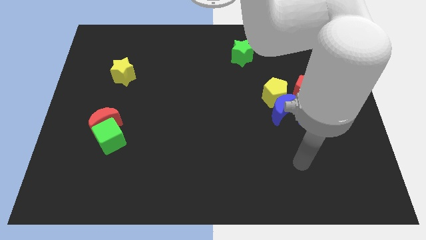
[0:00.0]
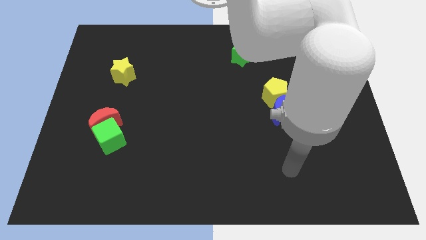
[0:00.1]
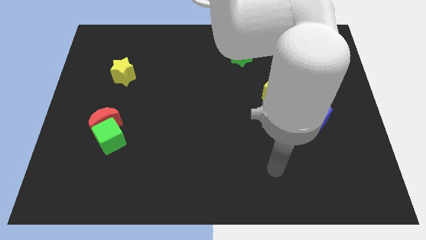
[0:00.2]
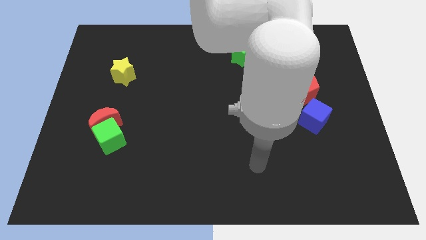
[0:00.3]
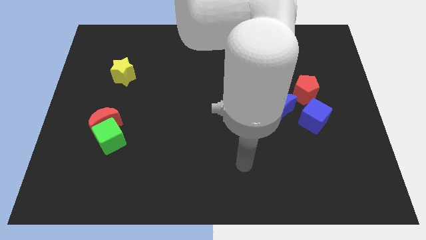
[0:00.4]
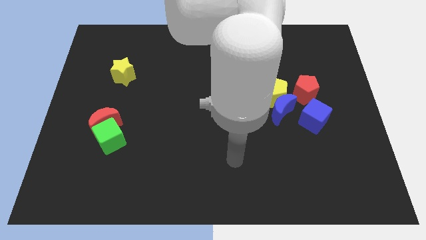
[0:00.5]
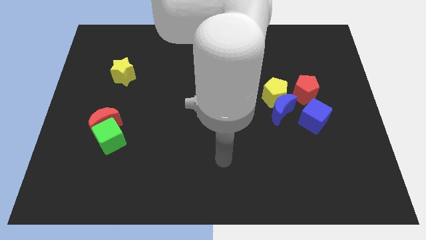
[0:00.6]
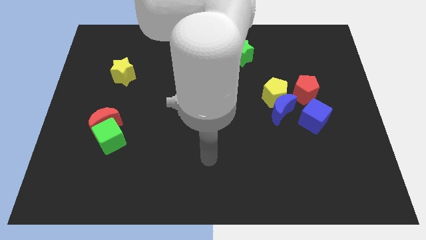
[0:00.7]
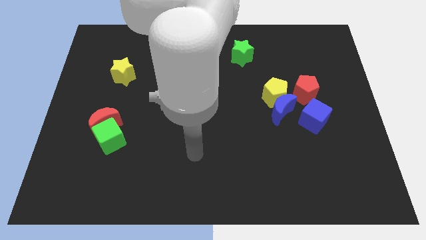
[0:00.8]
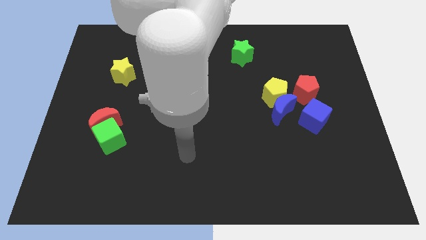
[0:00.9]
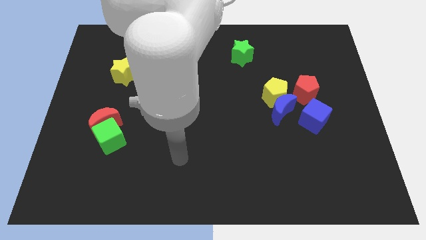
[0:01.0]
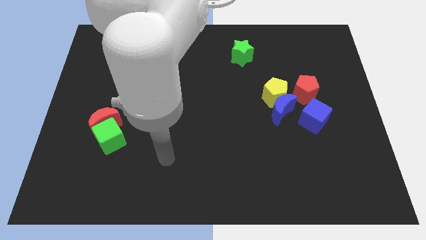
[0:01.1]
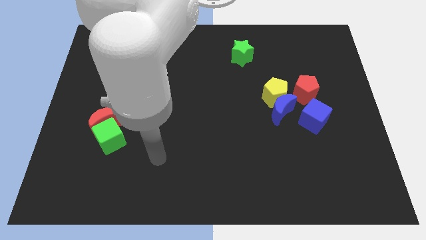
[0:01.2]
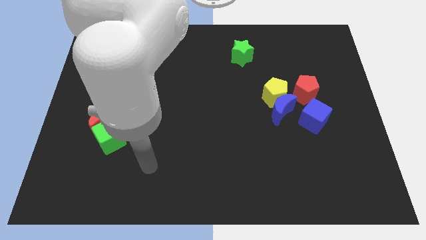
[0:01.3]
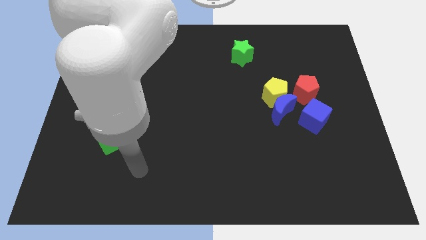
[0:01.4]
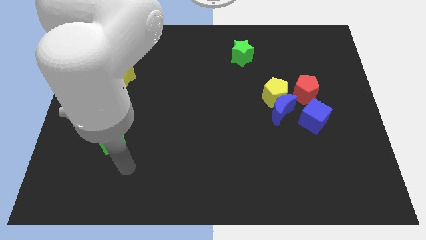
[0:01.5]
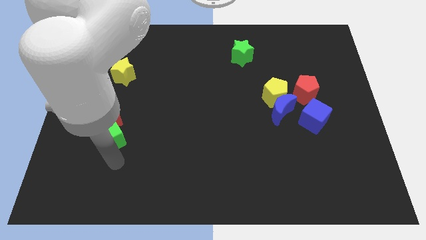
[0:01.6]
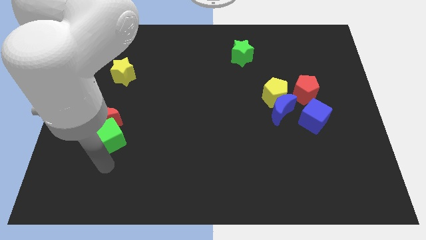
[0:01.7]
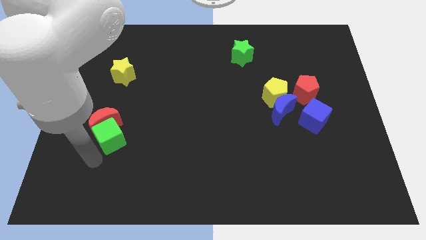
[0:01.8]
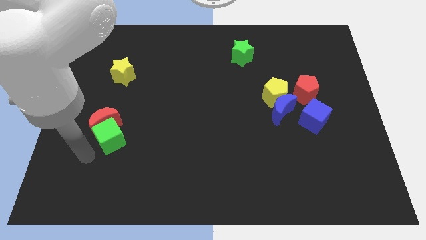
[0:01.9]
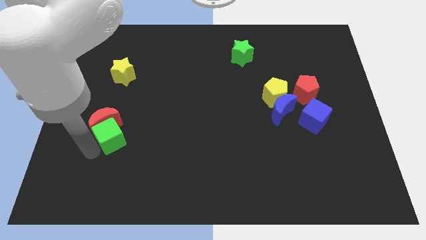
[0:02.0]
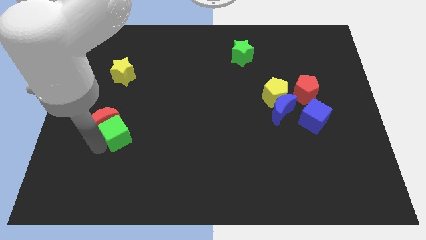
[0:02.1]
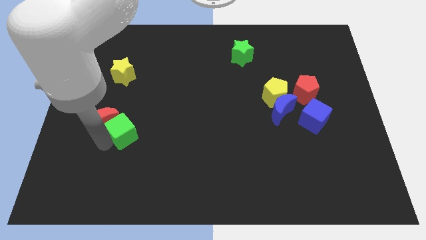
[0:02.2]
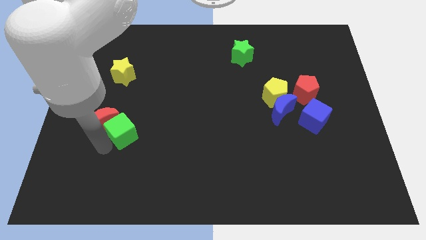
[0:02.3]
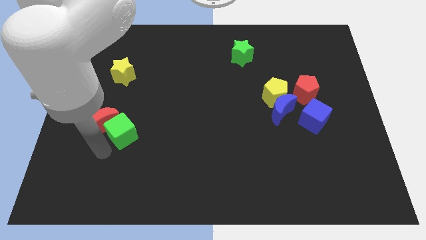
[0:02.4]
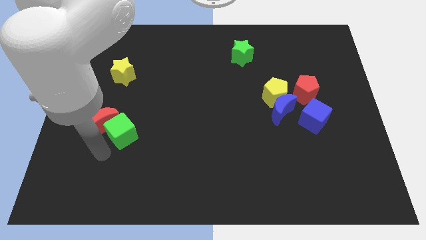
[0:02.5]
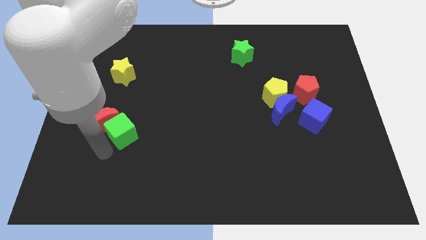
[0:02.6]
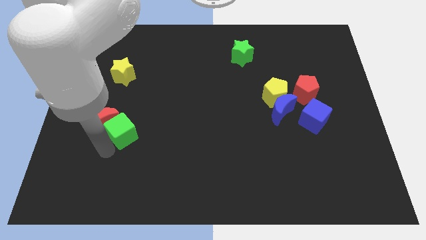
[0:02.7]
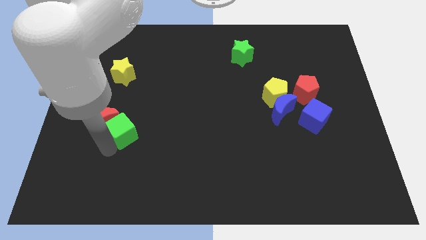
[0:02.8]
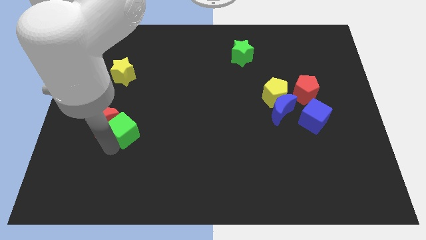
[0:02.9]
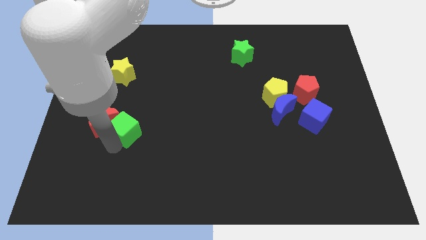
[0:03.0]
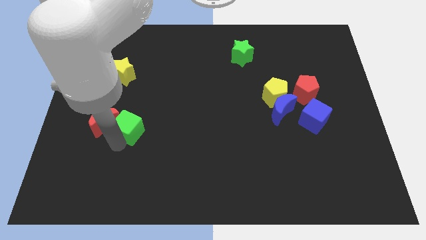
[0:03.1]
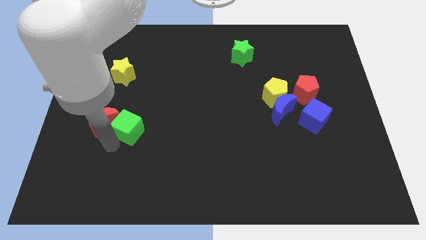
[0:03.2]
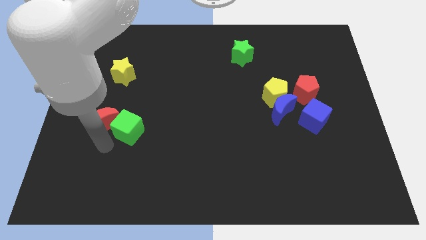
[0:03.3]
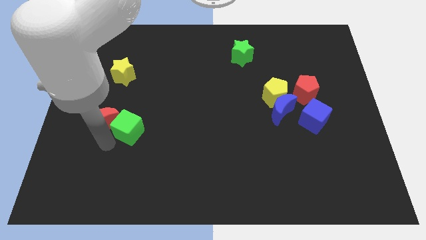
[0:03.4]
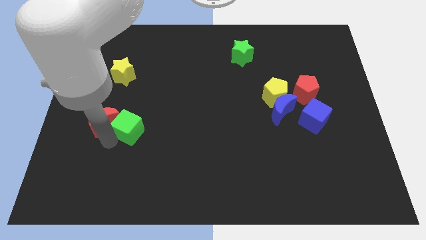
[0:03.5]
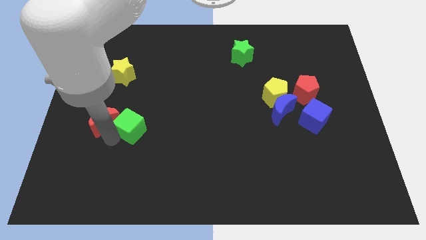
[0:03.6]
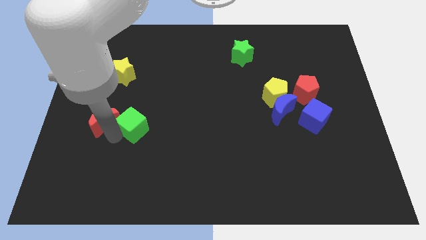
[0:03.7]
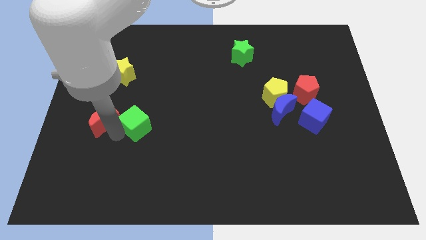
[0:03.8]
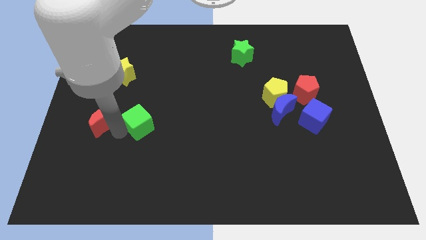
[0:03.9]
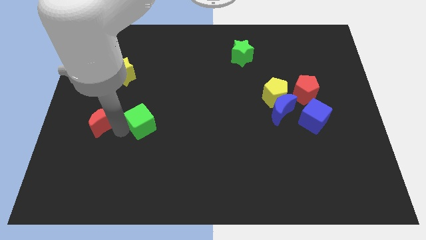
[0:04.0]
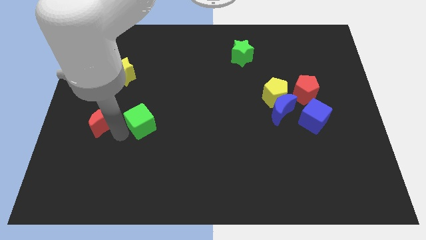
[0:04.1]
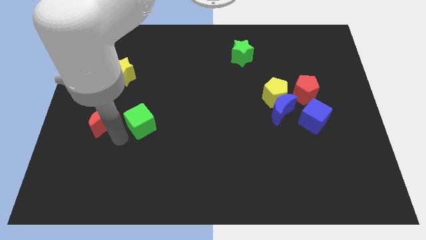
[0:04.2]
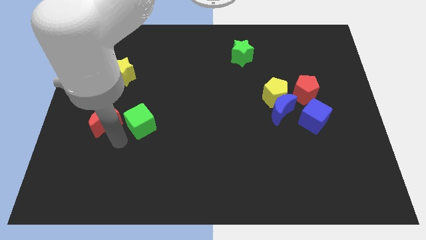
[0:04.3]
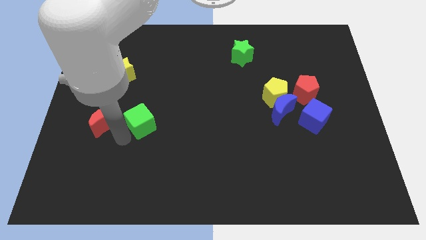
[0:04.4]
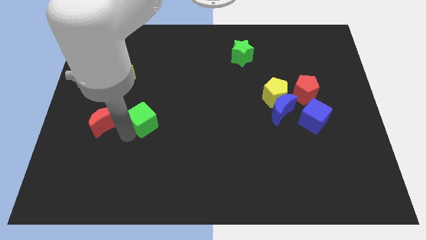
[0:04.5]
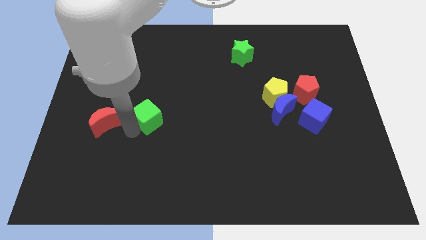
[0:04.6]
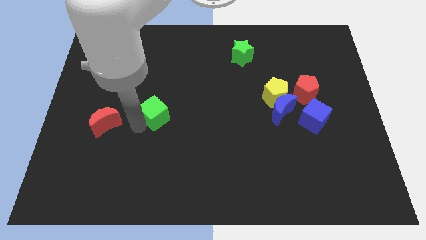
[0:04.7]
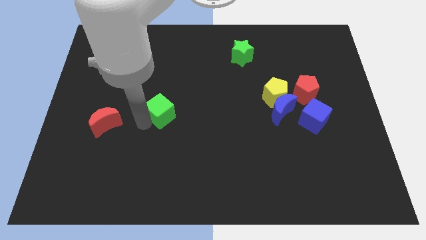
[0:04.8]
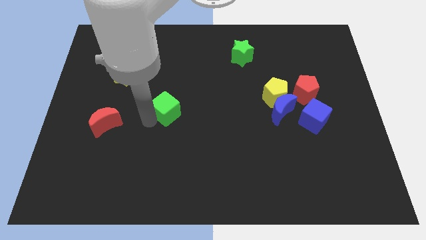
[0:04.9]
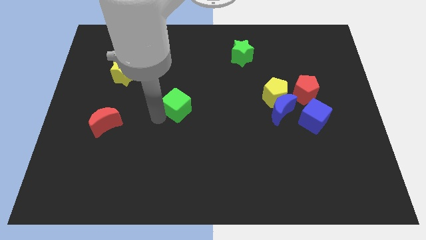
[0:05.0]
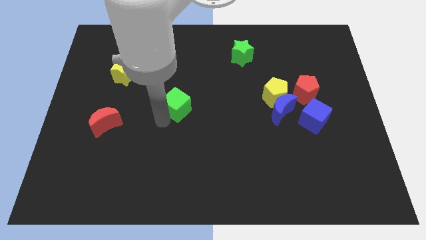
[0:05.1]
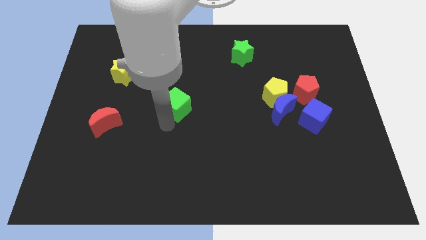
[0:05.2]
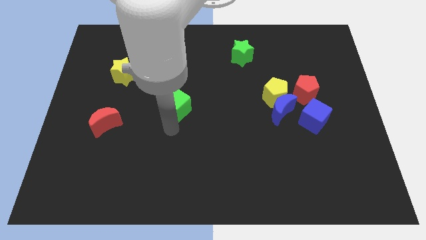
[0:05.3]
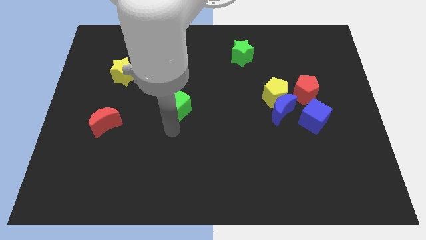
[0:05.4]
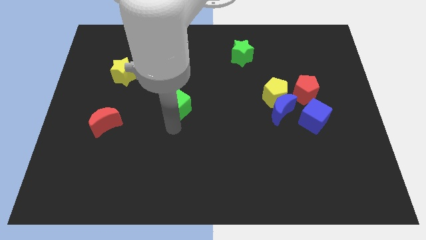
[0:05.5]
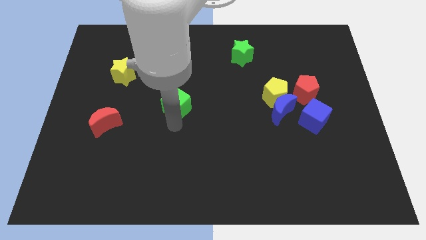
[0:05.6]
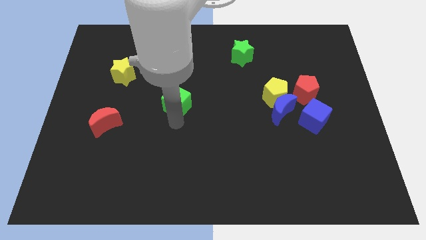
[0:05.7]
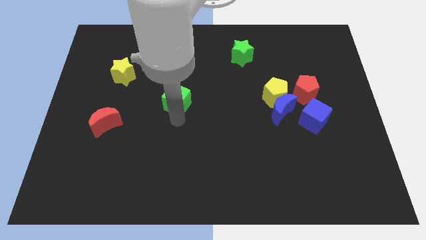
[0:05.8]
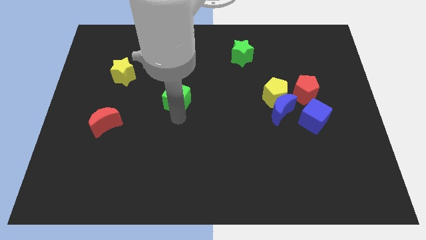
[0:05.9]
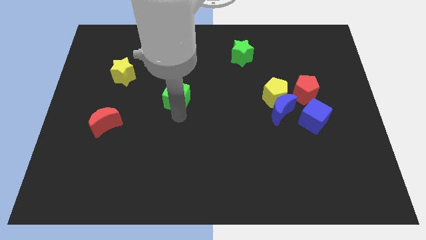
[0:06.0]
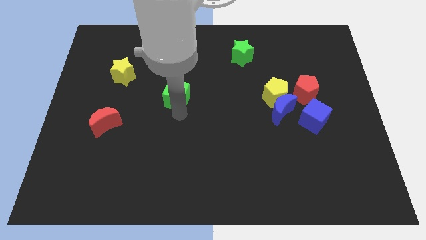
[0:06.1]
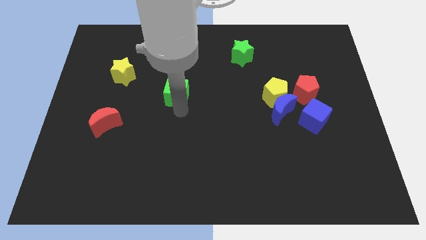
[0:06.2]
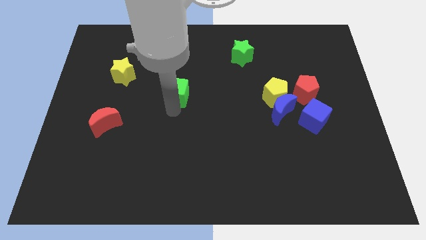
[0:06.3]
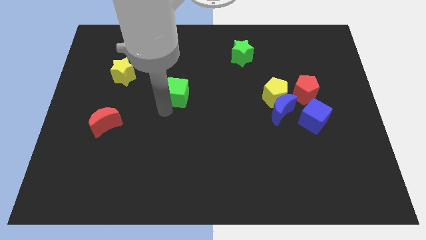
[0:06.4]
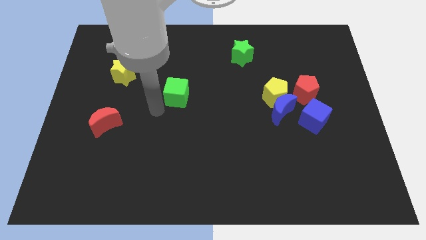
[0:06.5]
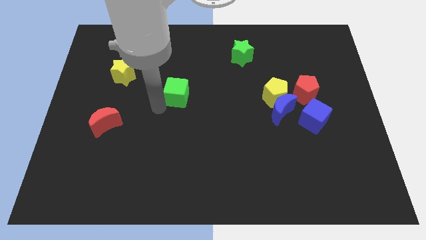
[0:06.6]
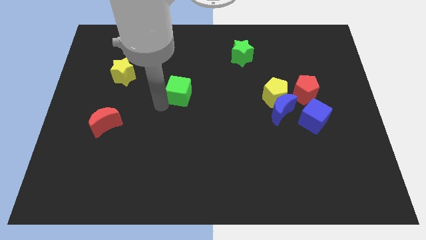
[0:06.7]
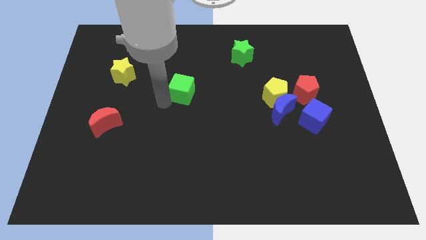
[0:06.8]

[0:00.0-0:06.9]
move the green cube up and then right

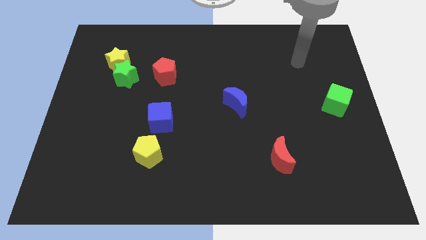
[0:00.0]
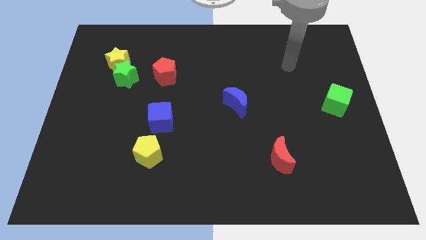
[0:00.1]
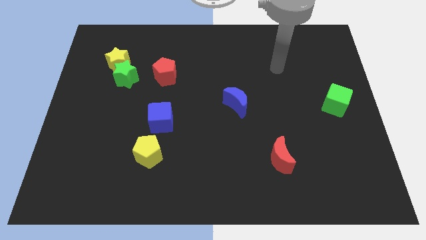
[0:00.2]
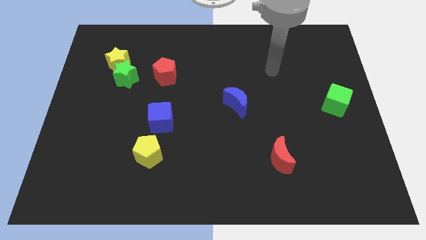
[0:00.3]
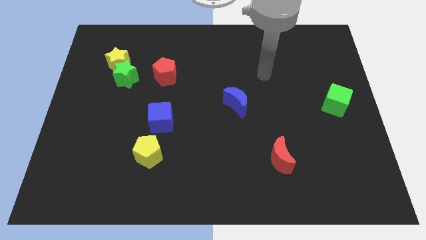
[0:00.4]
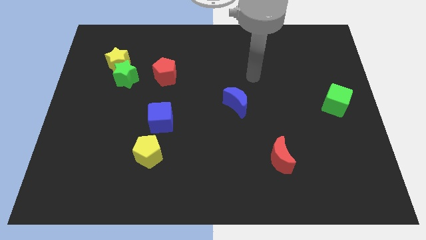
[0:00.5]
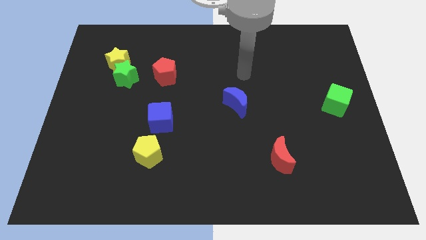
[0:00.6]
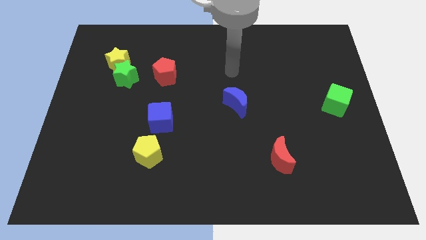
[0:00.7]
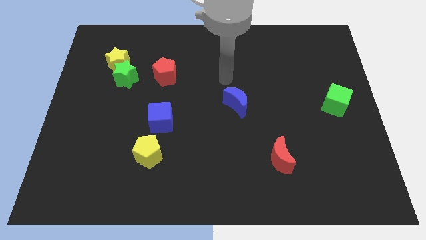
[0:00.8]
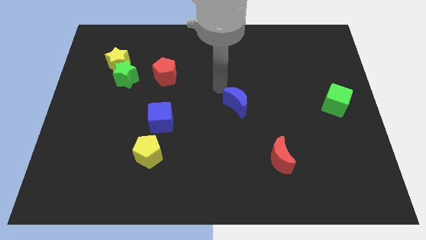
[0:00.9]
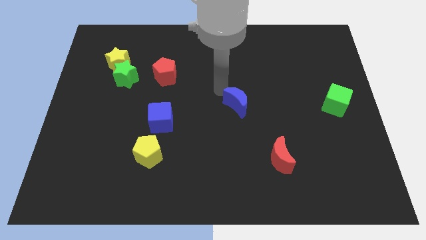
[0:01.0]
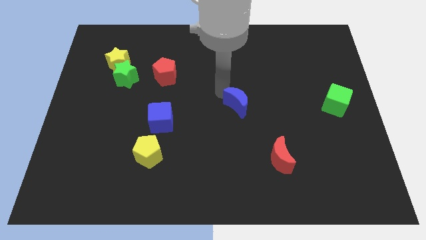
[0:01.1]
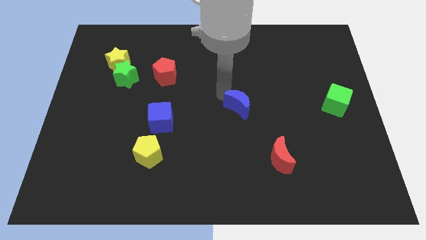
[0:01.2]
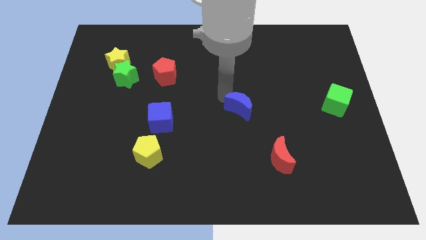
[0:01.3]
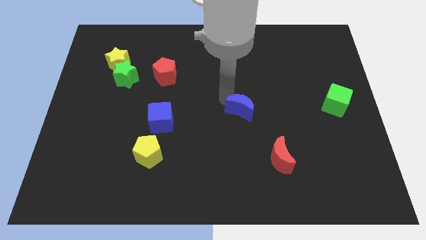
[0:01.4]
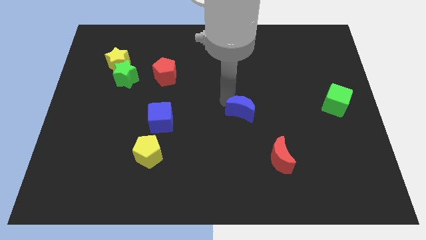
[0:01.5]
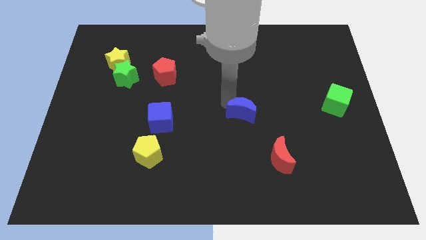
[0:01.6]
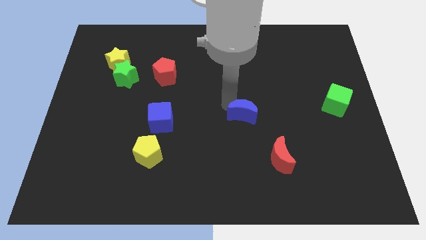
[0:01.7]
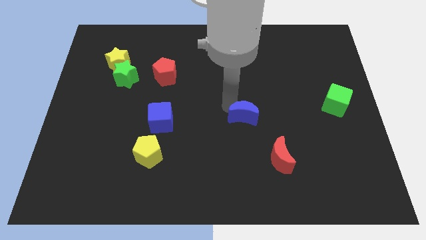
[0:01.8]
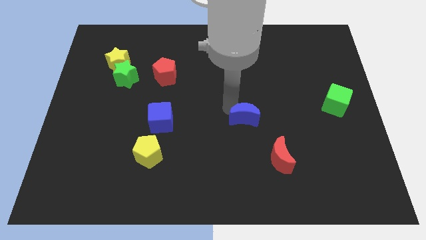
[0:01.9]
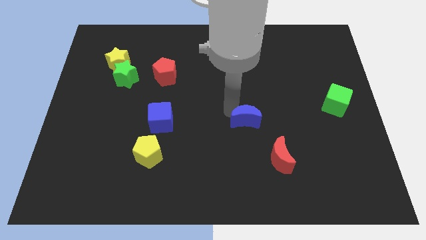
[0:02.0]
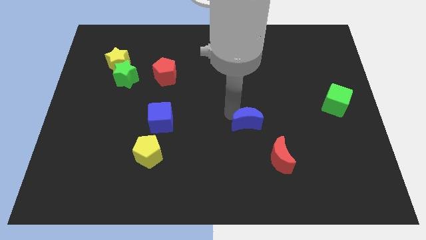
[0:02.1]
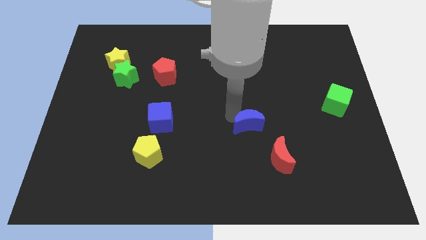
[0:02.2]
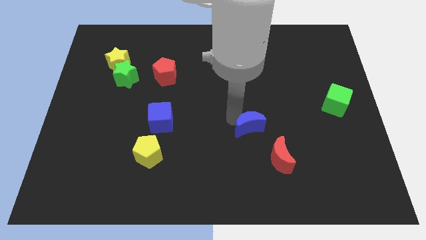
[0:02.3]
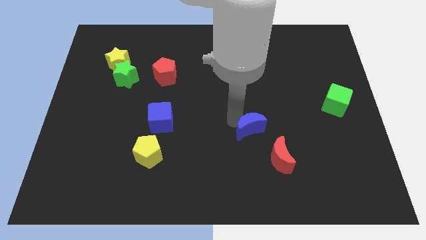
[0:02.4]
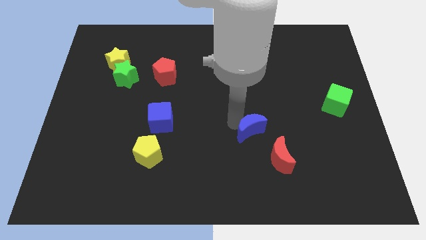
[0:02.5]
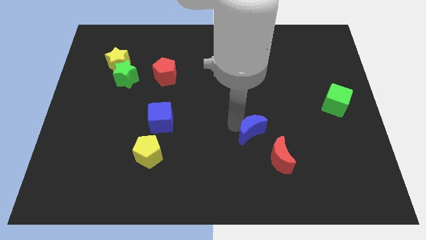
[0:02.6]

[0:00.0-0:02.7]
slide the blue moon a little bit downwards and right
